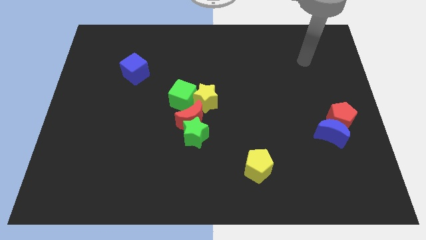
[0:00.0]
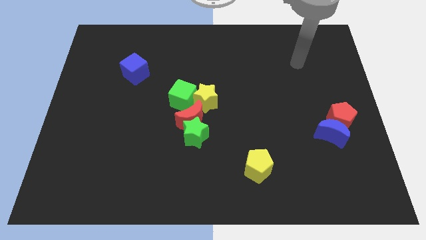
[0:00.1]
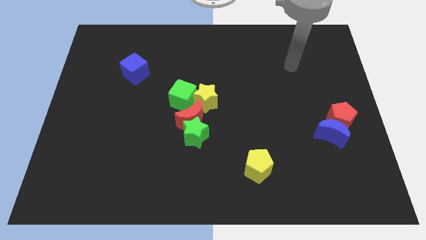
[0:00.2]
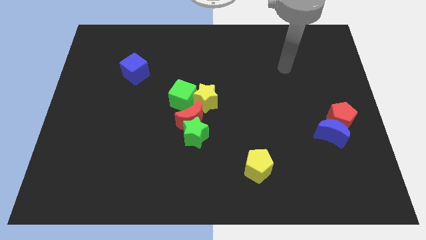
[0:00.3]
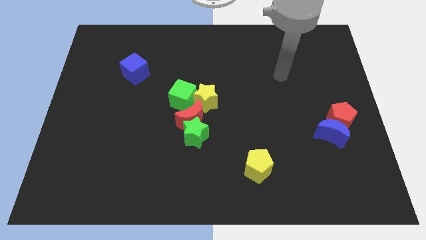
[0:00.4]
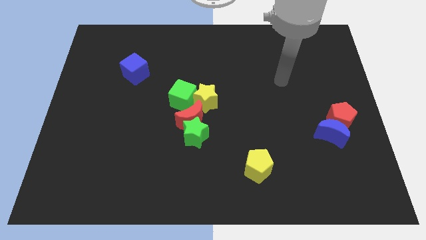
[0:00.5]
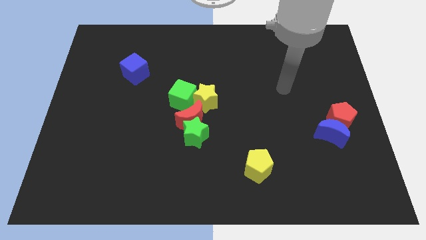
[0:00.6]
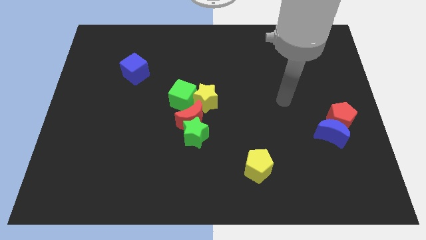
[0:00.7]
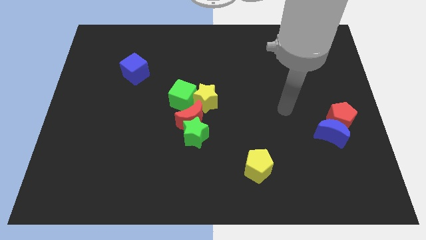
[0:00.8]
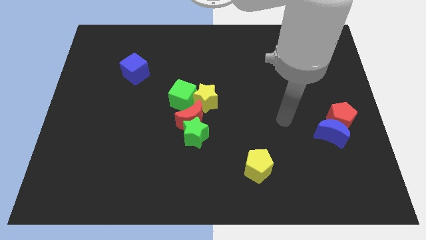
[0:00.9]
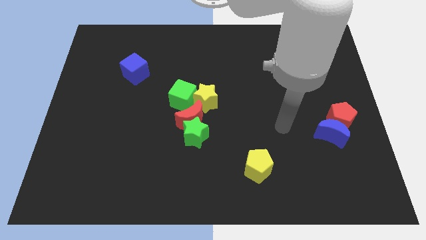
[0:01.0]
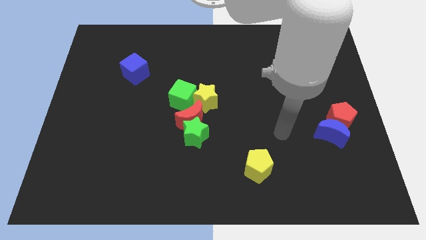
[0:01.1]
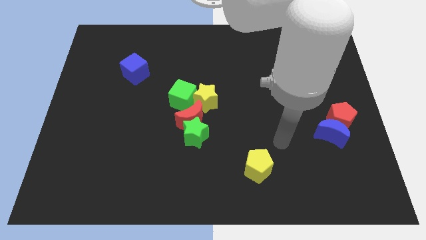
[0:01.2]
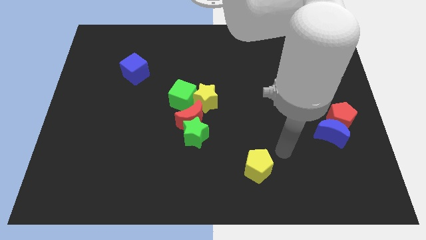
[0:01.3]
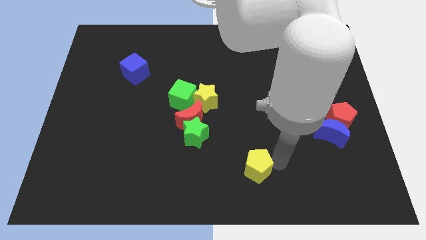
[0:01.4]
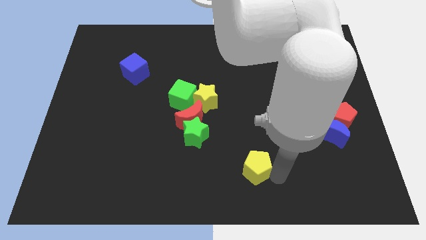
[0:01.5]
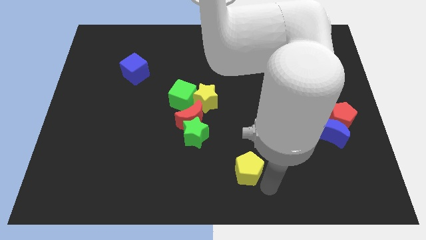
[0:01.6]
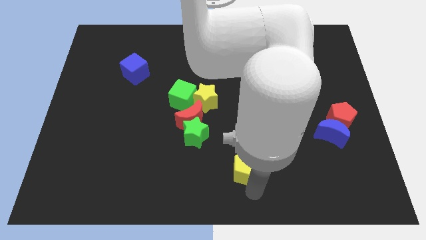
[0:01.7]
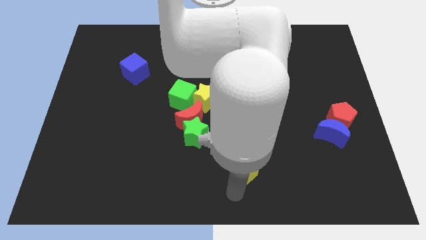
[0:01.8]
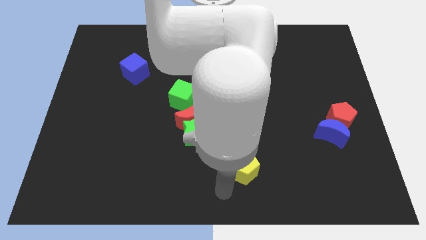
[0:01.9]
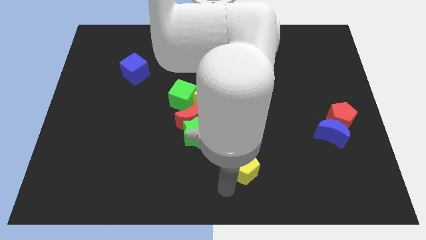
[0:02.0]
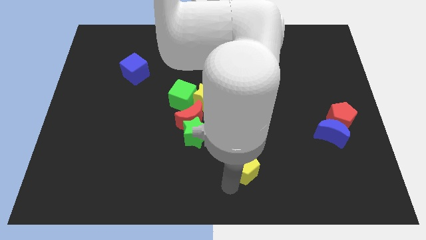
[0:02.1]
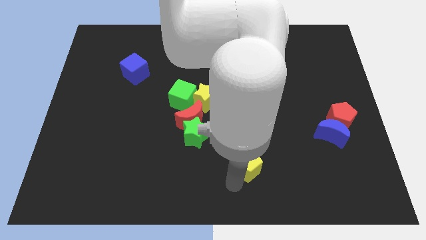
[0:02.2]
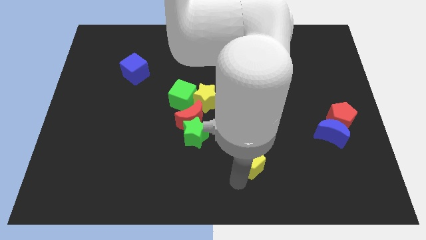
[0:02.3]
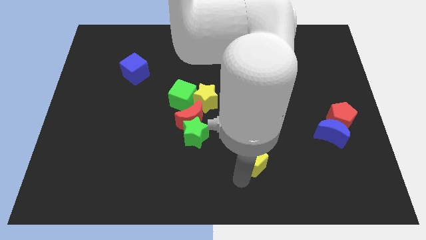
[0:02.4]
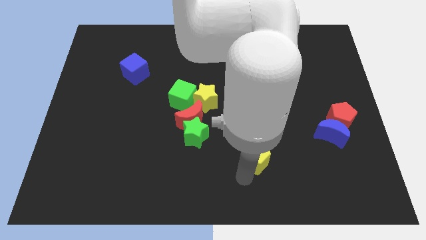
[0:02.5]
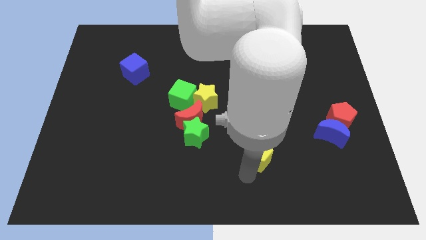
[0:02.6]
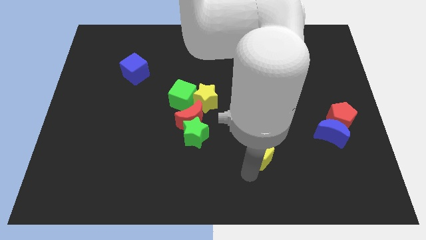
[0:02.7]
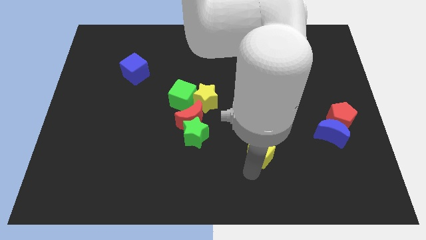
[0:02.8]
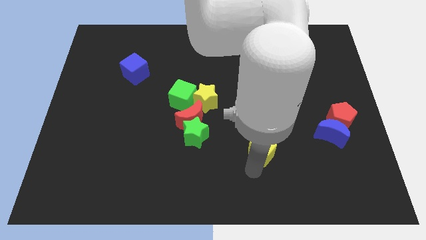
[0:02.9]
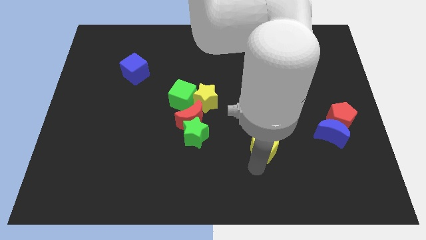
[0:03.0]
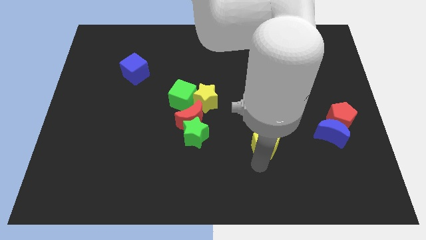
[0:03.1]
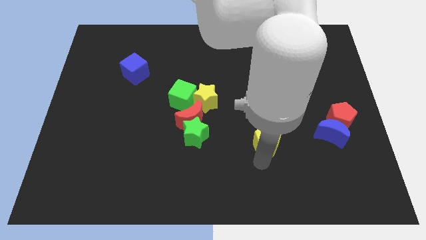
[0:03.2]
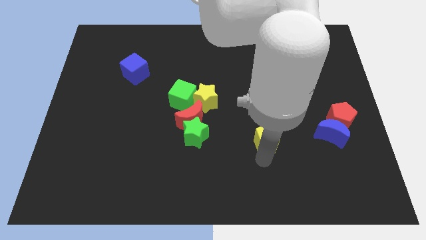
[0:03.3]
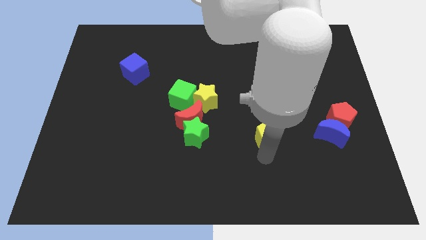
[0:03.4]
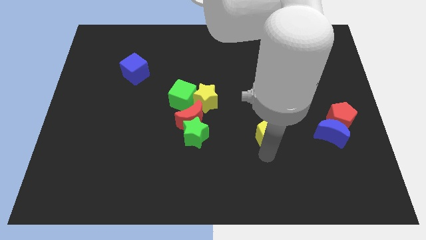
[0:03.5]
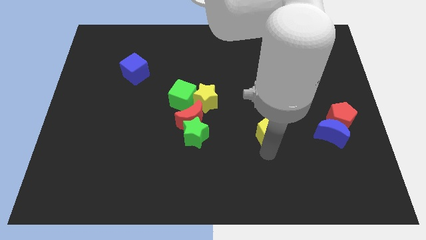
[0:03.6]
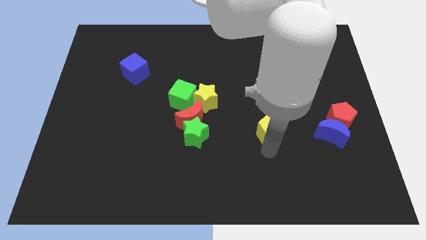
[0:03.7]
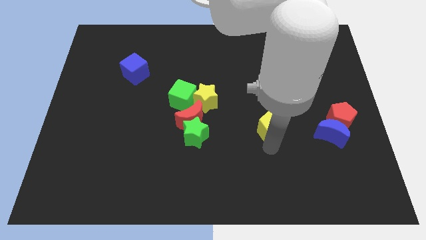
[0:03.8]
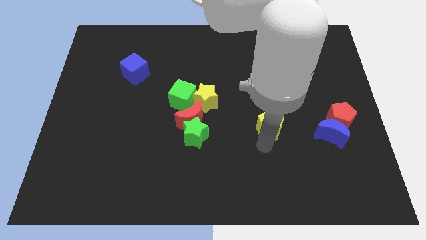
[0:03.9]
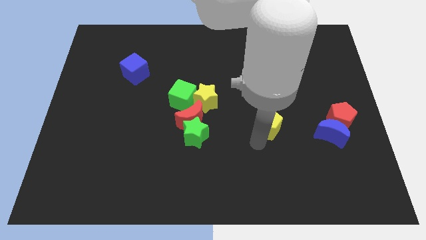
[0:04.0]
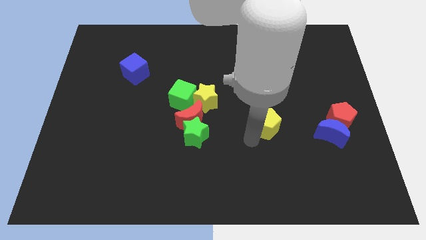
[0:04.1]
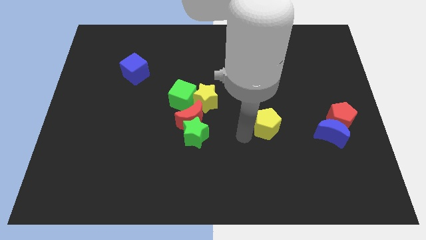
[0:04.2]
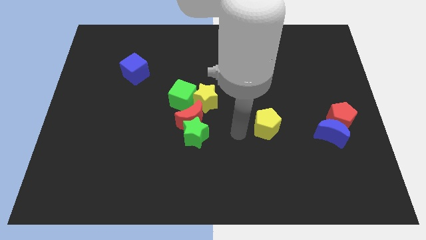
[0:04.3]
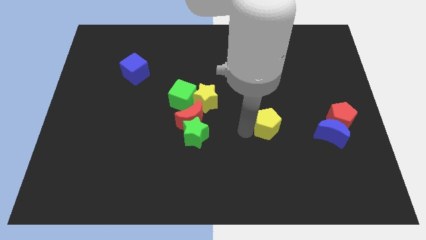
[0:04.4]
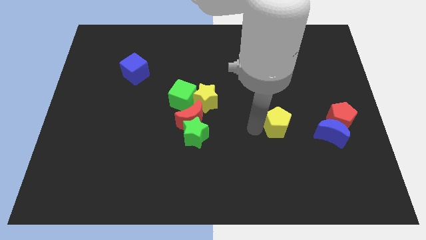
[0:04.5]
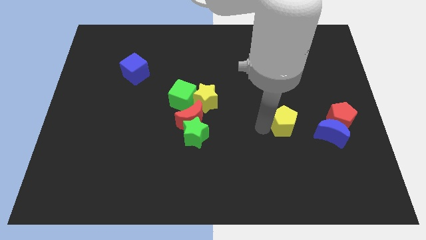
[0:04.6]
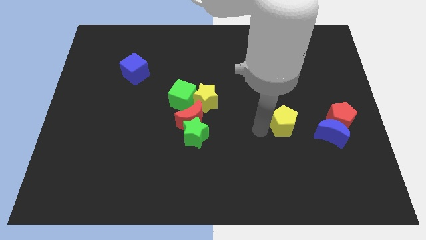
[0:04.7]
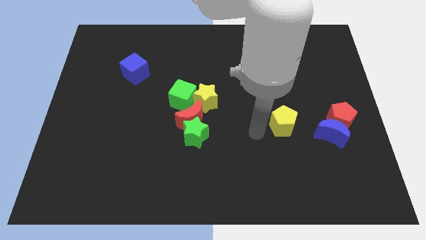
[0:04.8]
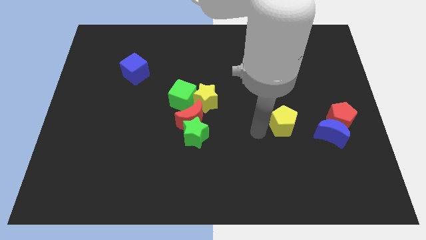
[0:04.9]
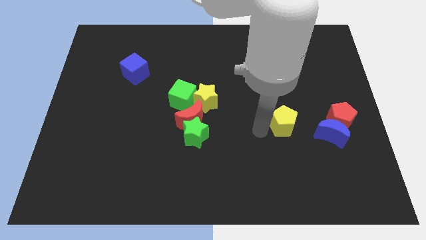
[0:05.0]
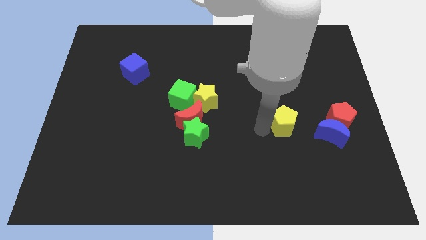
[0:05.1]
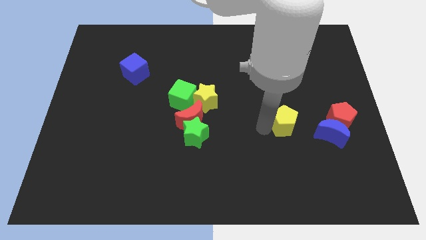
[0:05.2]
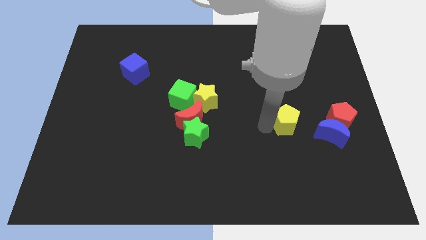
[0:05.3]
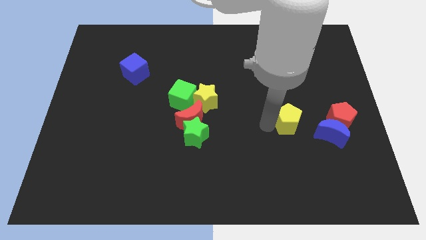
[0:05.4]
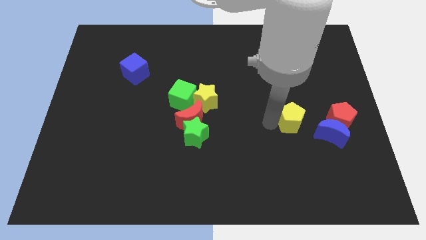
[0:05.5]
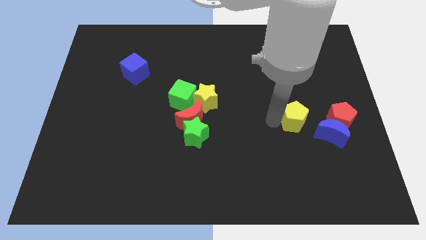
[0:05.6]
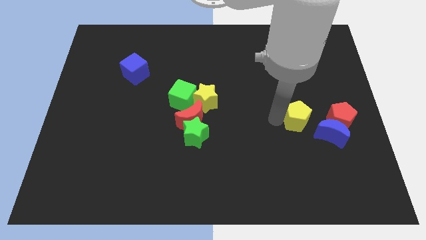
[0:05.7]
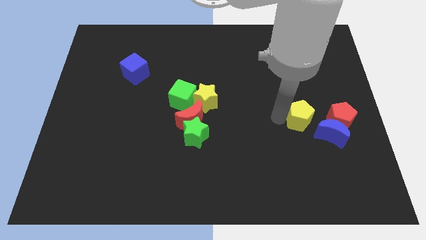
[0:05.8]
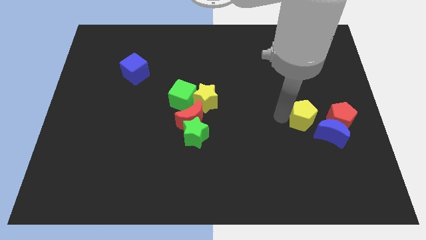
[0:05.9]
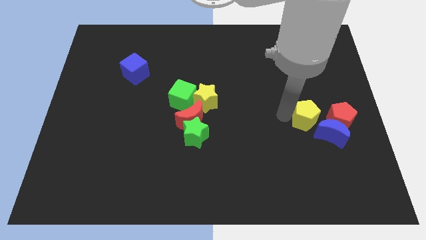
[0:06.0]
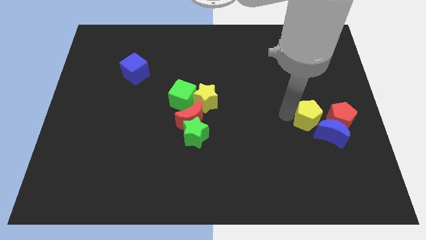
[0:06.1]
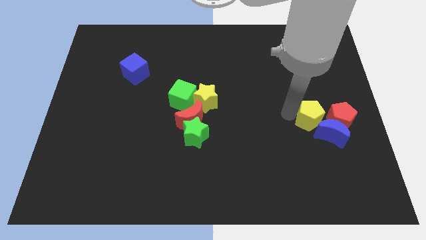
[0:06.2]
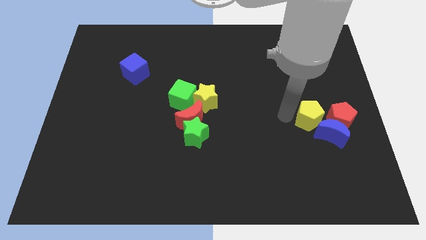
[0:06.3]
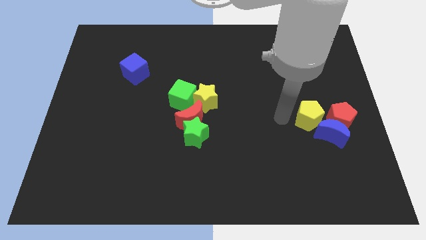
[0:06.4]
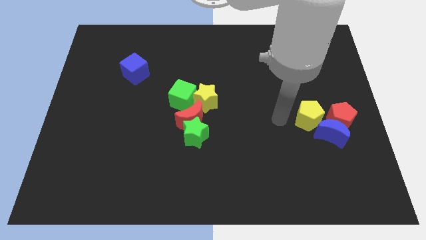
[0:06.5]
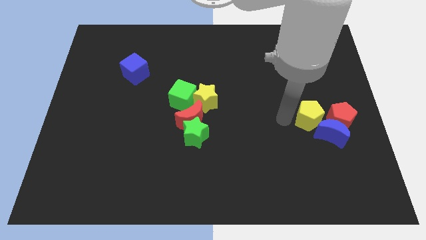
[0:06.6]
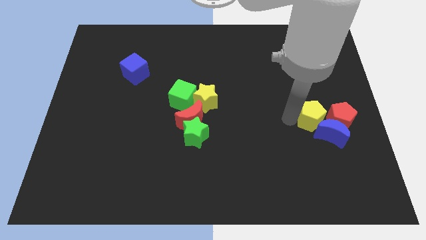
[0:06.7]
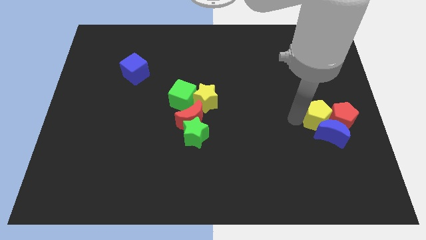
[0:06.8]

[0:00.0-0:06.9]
put the yellow pentagon next to the red pentagon
